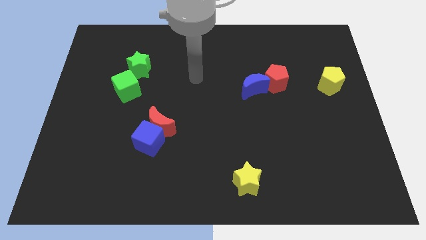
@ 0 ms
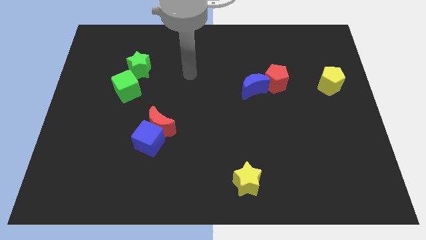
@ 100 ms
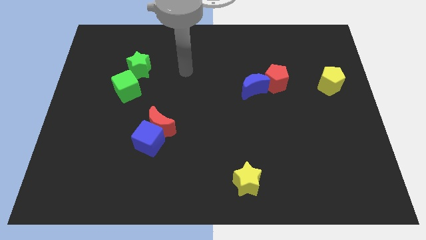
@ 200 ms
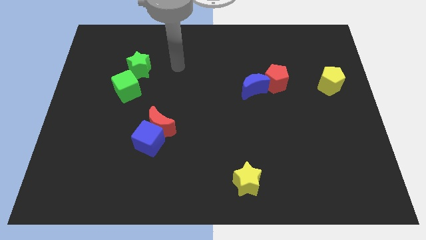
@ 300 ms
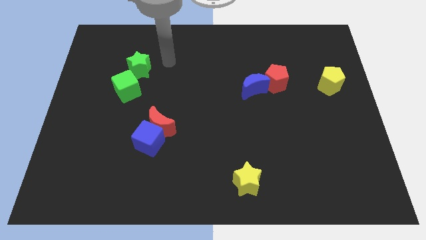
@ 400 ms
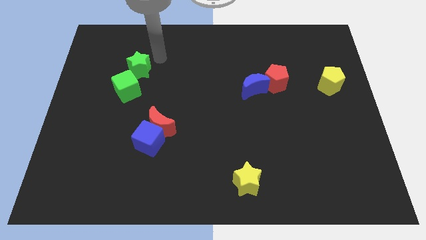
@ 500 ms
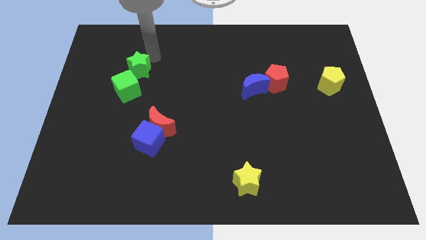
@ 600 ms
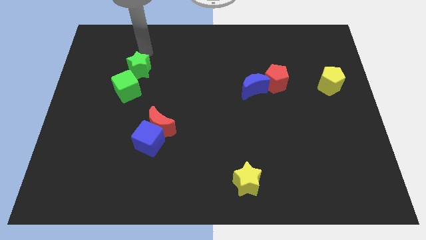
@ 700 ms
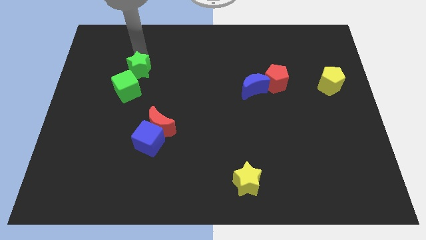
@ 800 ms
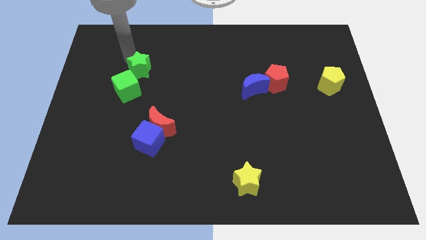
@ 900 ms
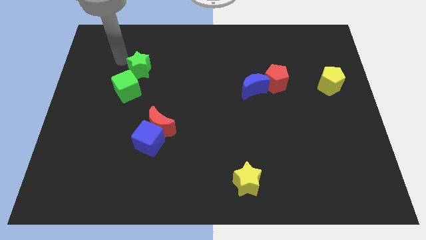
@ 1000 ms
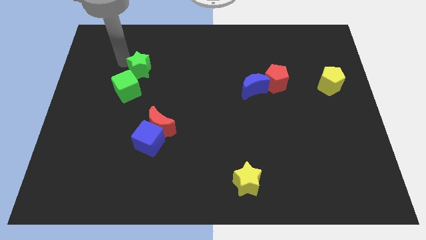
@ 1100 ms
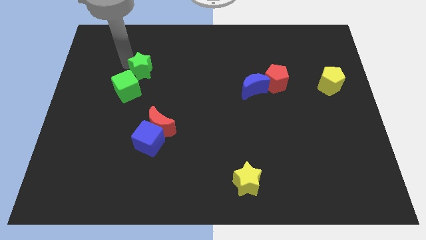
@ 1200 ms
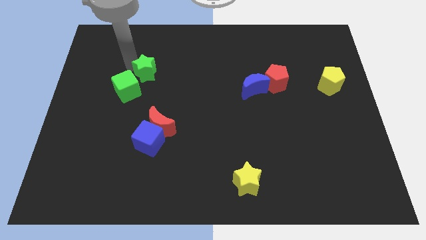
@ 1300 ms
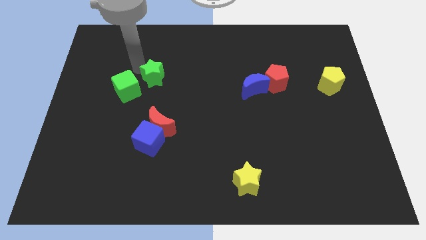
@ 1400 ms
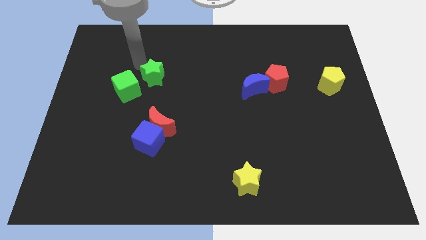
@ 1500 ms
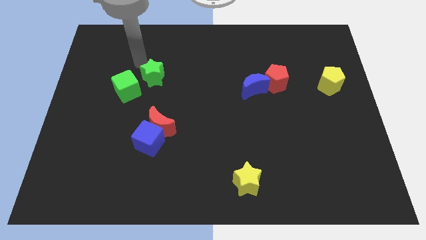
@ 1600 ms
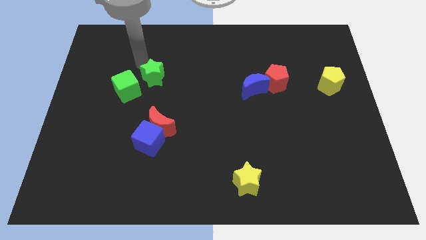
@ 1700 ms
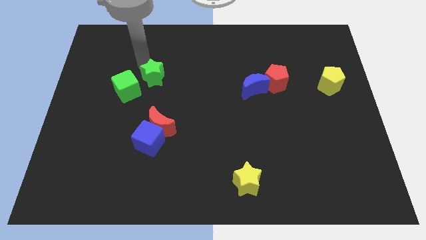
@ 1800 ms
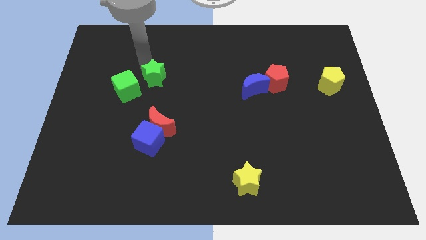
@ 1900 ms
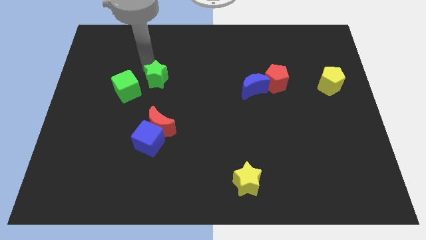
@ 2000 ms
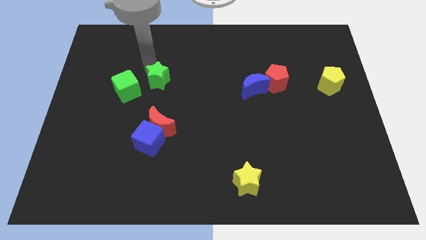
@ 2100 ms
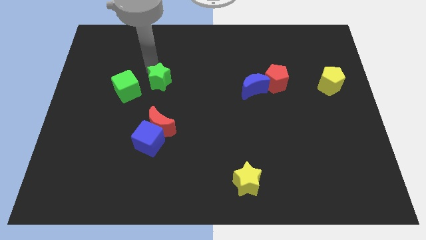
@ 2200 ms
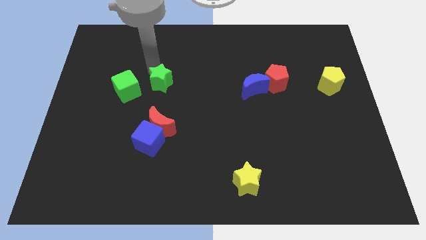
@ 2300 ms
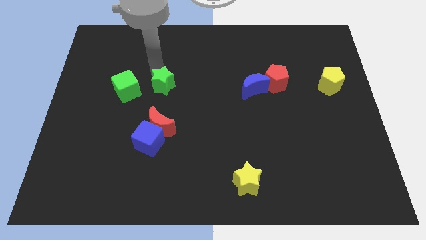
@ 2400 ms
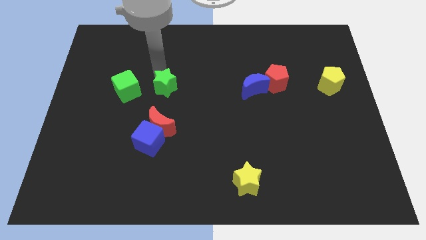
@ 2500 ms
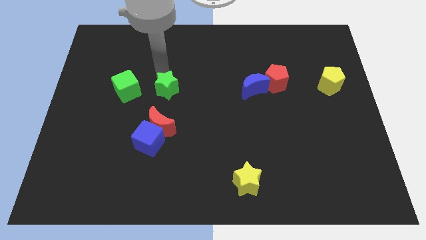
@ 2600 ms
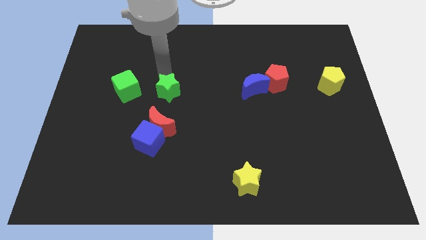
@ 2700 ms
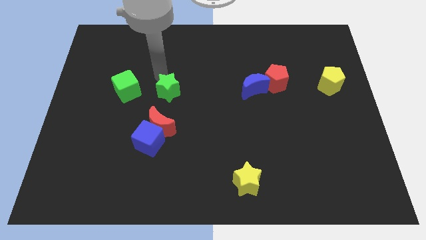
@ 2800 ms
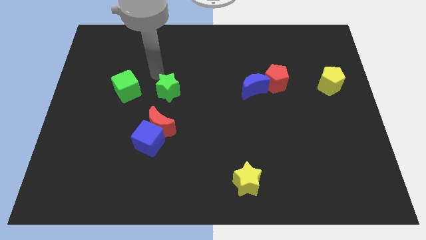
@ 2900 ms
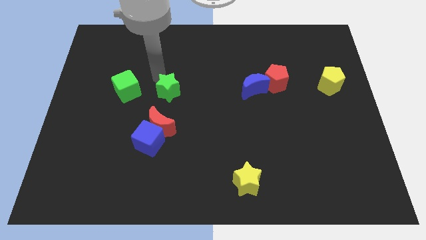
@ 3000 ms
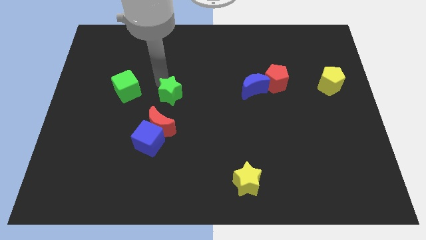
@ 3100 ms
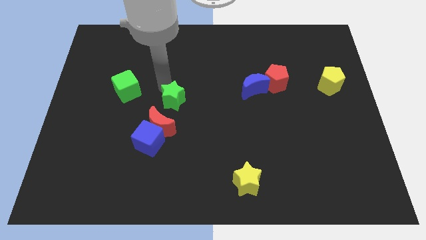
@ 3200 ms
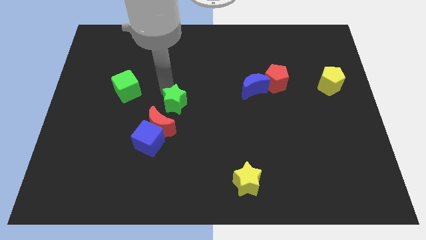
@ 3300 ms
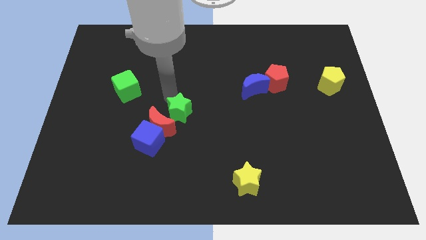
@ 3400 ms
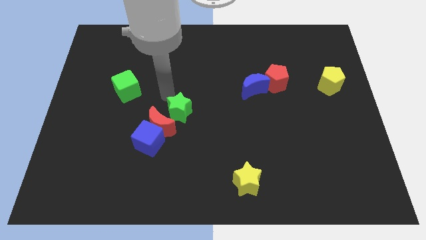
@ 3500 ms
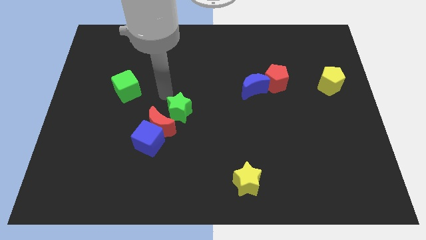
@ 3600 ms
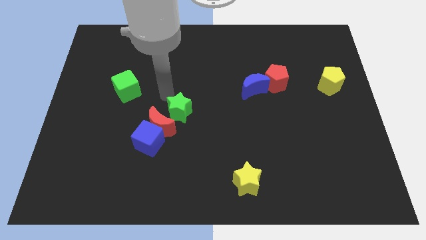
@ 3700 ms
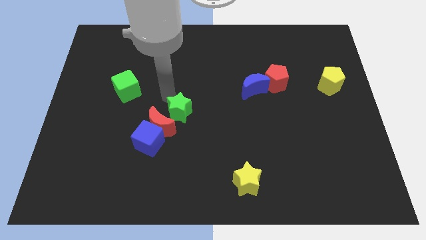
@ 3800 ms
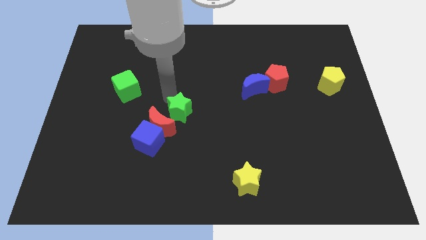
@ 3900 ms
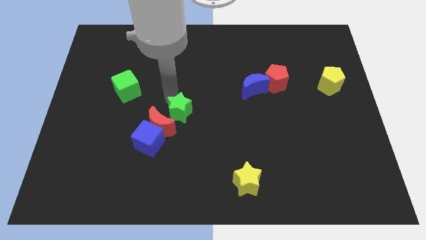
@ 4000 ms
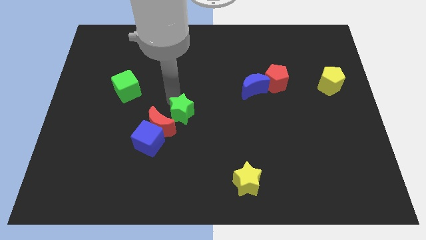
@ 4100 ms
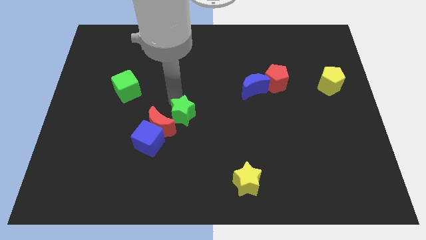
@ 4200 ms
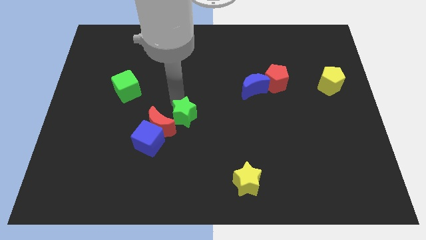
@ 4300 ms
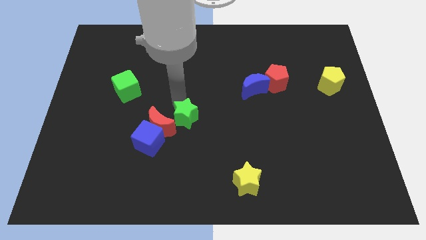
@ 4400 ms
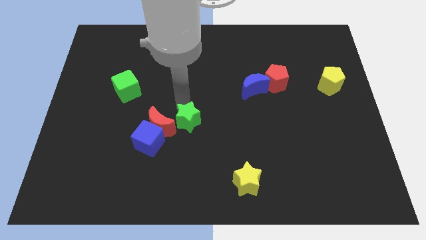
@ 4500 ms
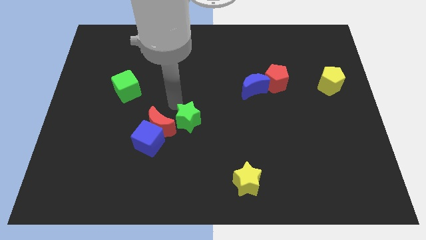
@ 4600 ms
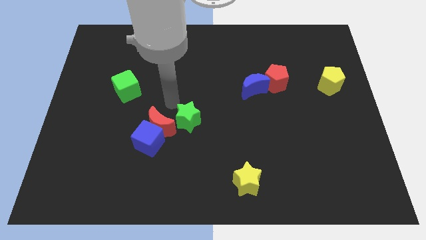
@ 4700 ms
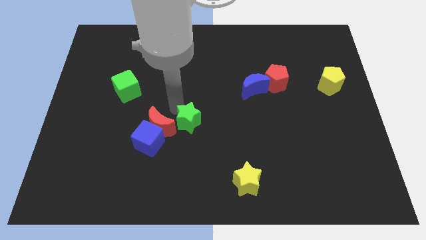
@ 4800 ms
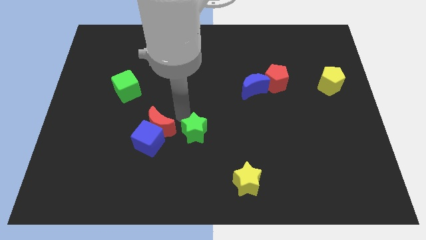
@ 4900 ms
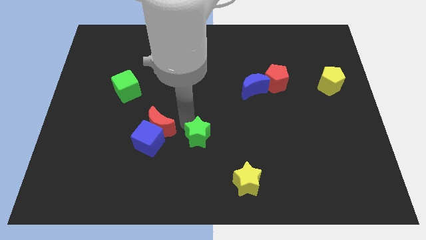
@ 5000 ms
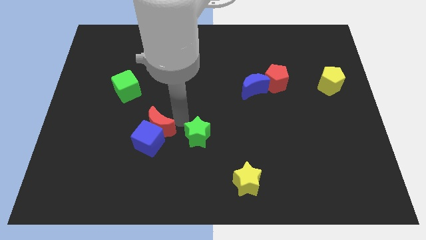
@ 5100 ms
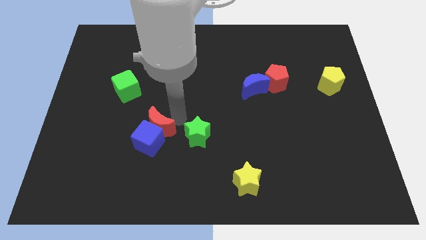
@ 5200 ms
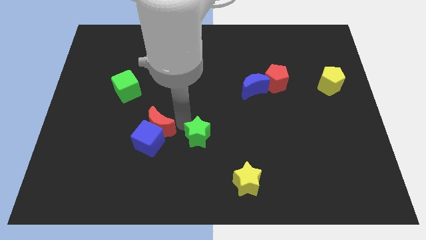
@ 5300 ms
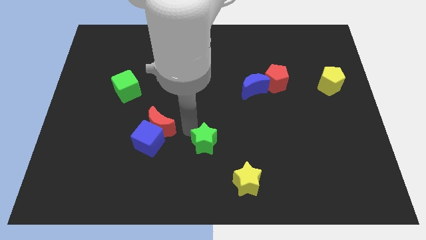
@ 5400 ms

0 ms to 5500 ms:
slide the green star diagonally up and to the left of the yellow star

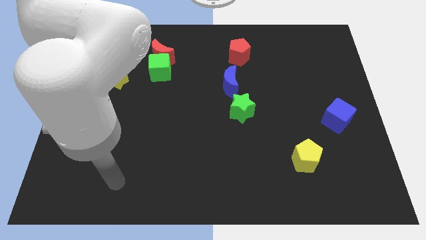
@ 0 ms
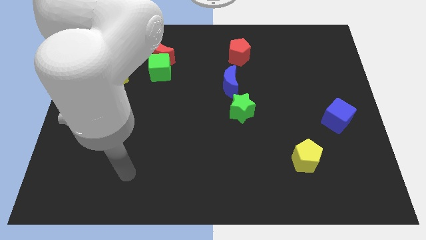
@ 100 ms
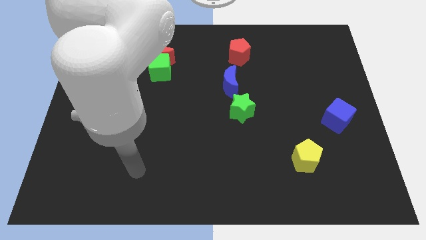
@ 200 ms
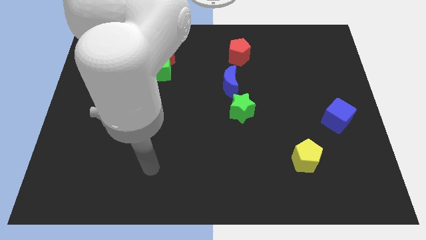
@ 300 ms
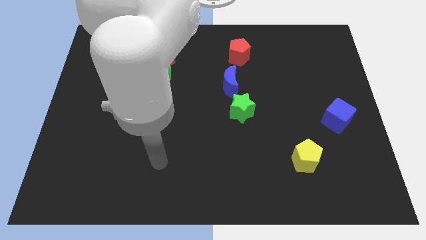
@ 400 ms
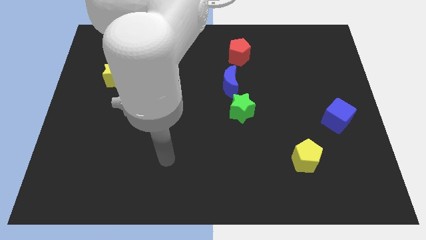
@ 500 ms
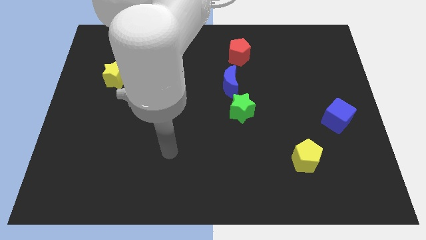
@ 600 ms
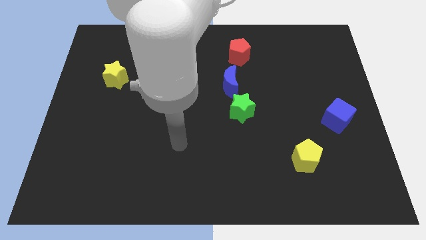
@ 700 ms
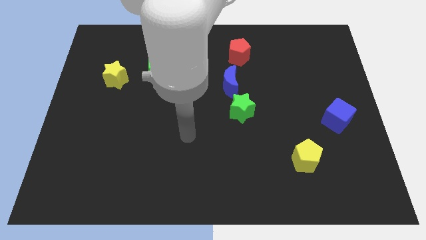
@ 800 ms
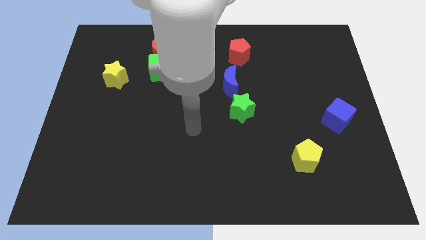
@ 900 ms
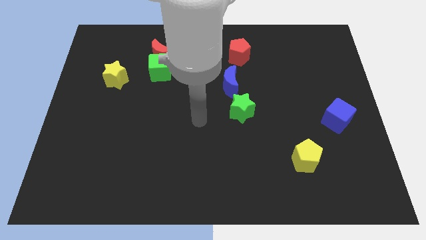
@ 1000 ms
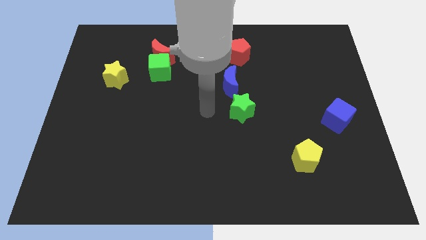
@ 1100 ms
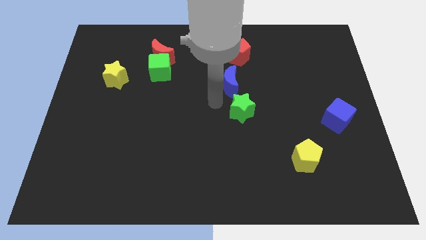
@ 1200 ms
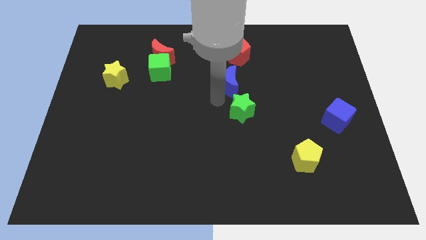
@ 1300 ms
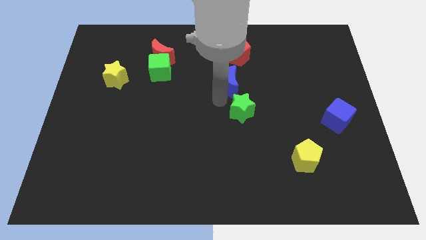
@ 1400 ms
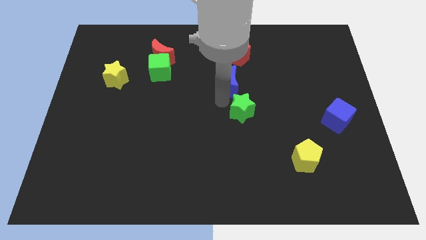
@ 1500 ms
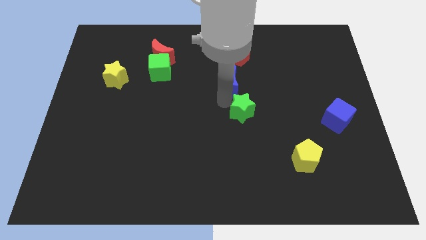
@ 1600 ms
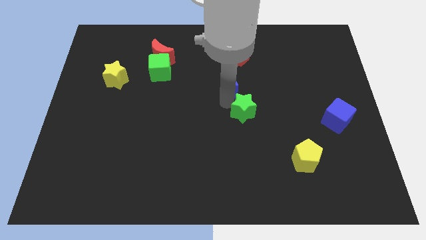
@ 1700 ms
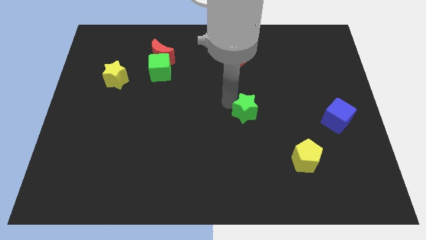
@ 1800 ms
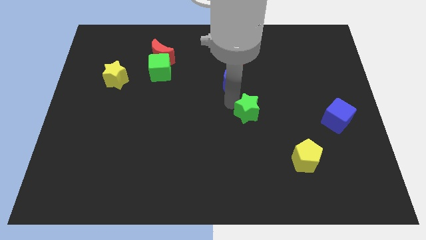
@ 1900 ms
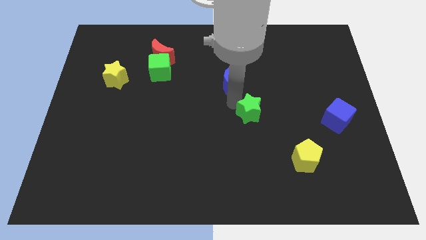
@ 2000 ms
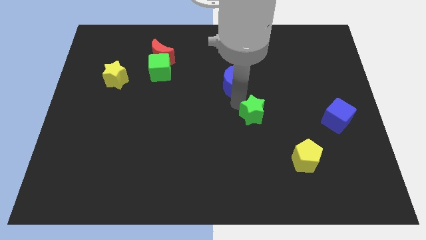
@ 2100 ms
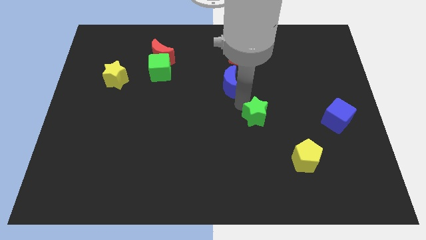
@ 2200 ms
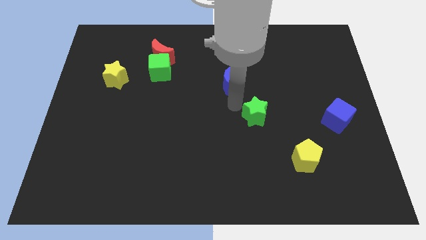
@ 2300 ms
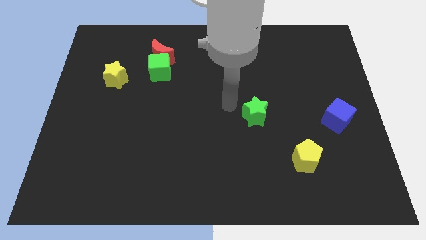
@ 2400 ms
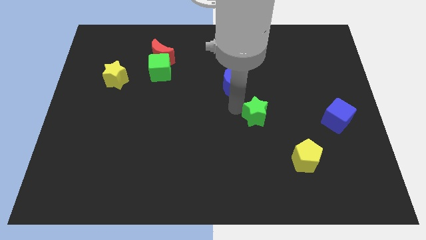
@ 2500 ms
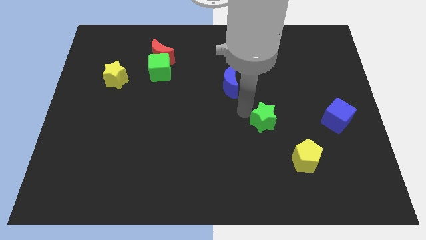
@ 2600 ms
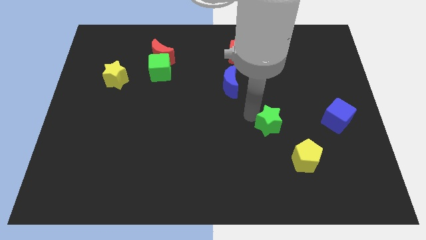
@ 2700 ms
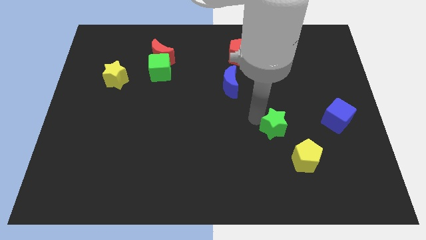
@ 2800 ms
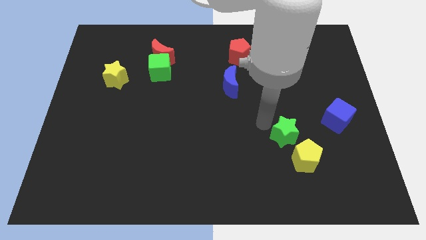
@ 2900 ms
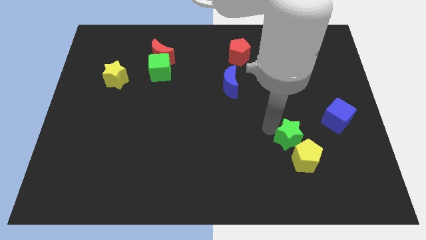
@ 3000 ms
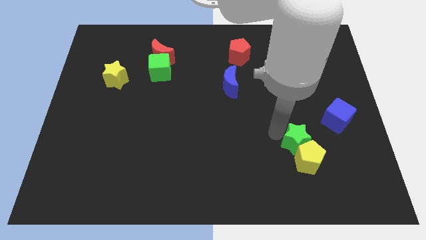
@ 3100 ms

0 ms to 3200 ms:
push the green star to the bottom left side of the blue cube
